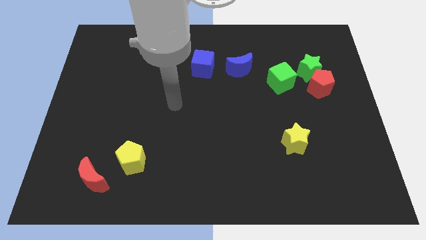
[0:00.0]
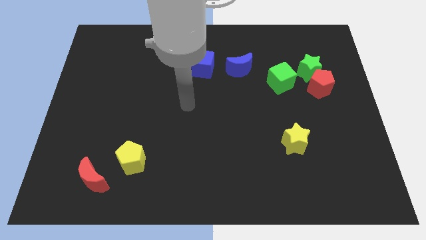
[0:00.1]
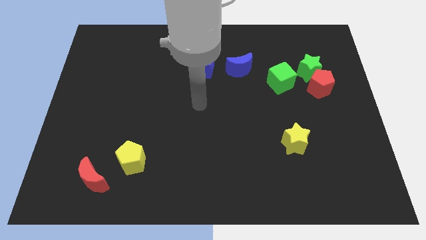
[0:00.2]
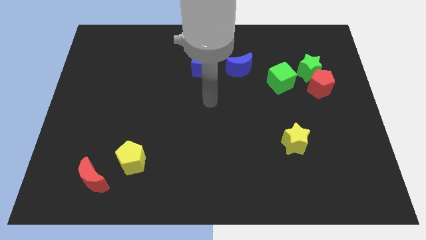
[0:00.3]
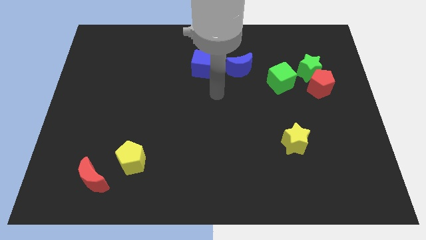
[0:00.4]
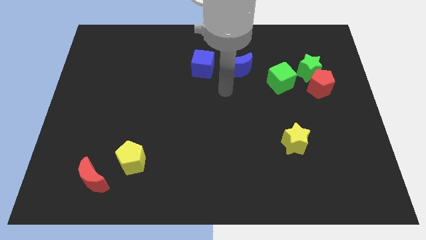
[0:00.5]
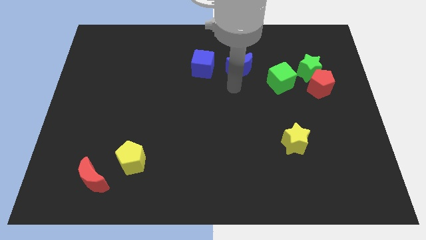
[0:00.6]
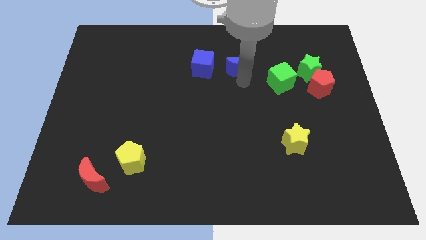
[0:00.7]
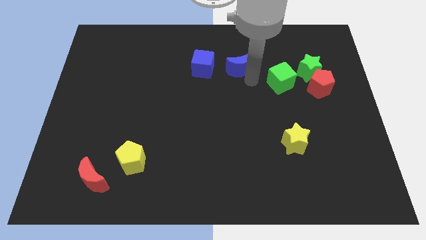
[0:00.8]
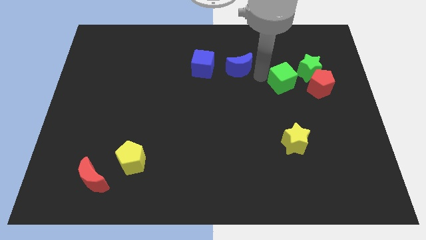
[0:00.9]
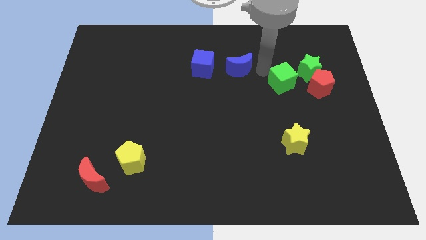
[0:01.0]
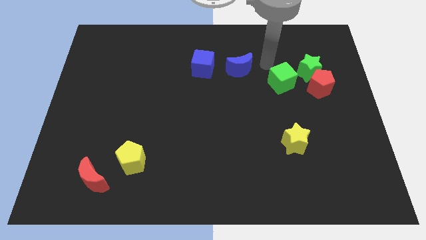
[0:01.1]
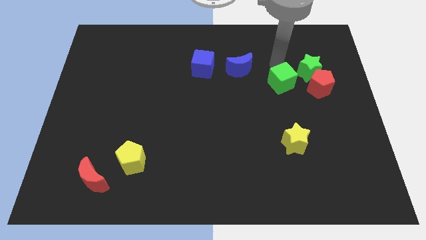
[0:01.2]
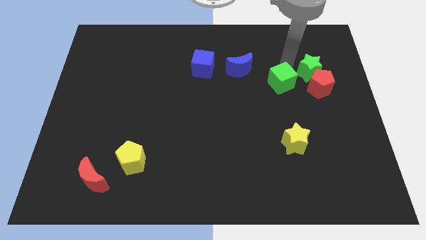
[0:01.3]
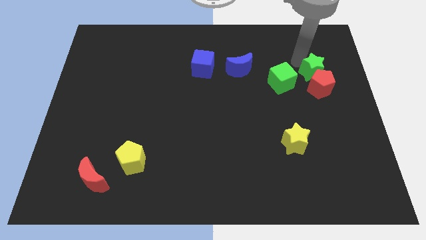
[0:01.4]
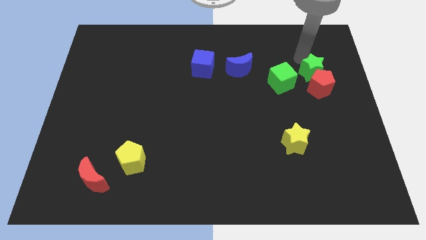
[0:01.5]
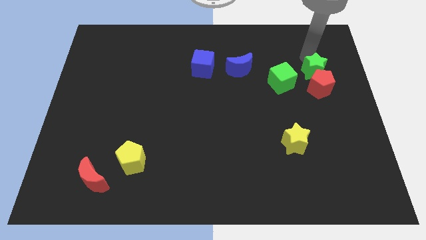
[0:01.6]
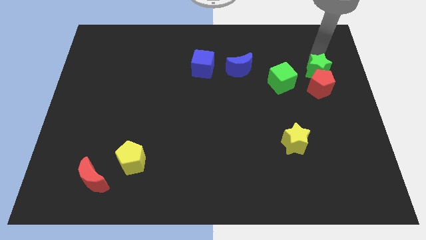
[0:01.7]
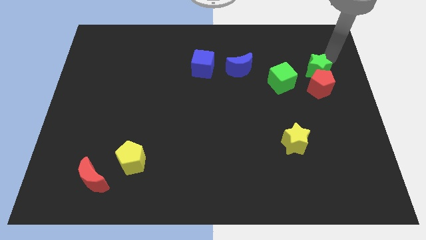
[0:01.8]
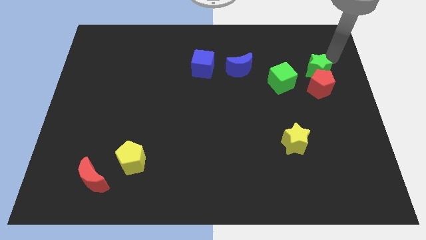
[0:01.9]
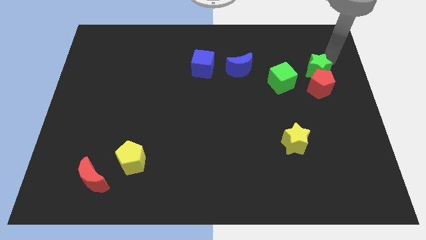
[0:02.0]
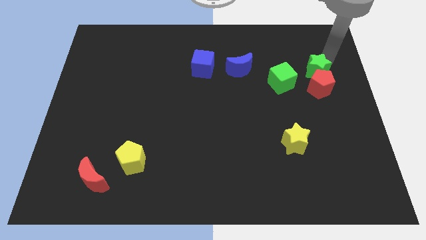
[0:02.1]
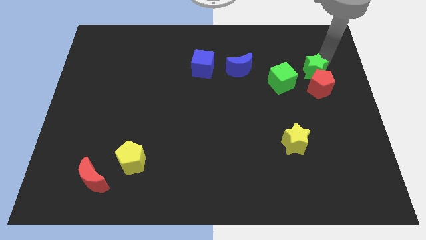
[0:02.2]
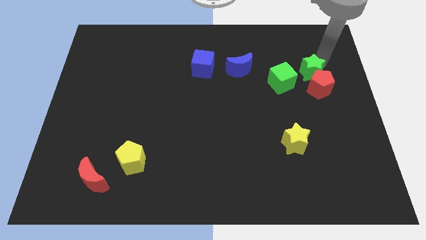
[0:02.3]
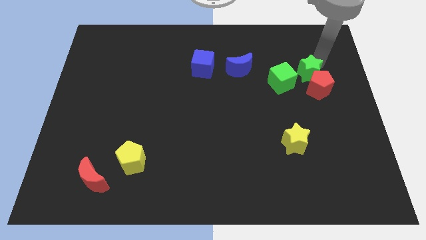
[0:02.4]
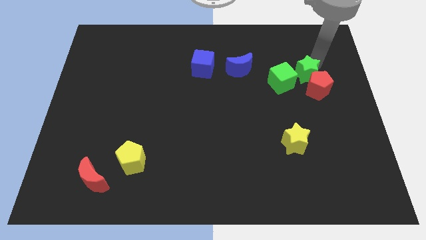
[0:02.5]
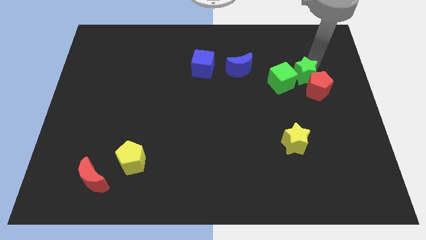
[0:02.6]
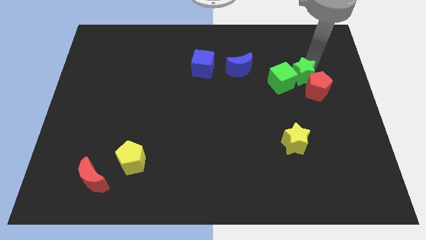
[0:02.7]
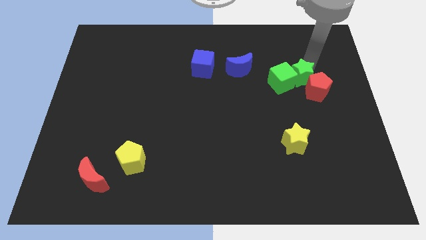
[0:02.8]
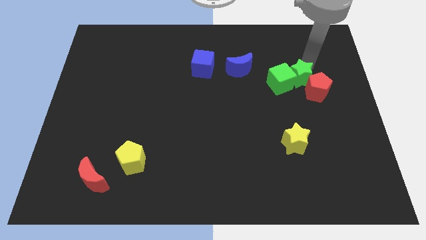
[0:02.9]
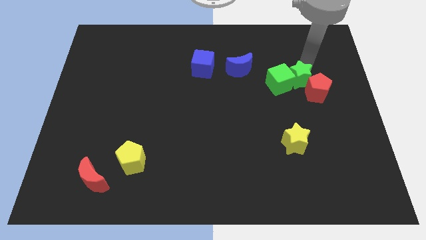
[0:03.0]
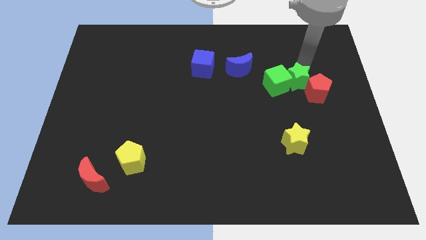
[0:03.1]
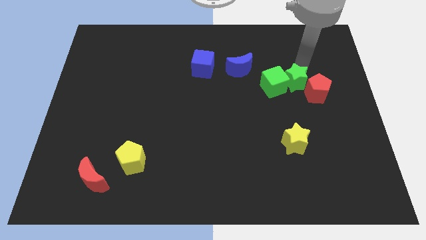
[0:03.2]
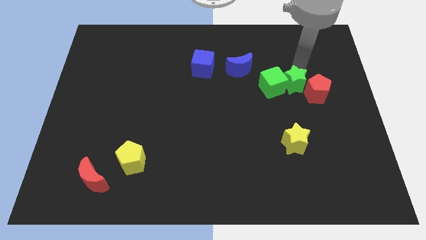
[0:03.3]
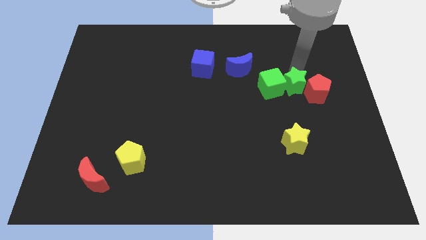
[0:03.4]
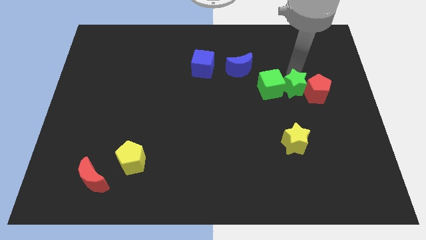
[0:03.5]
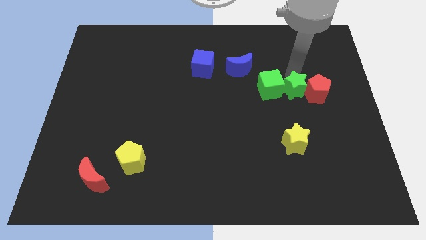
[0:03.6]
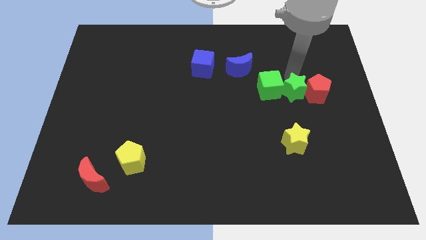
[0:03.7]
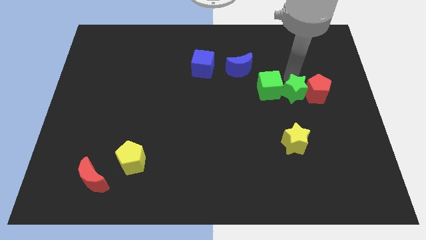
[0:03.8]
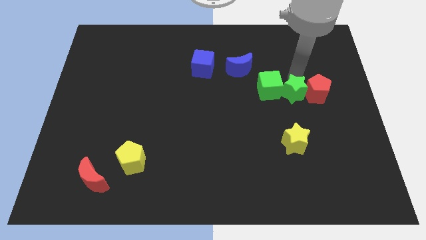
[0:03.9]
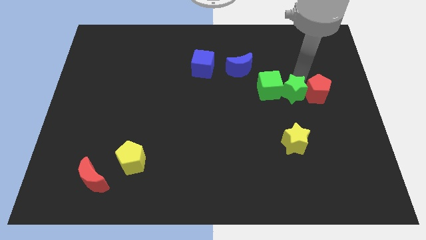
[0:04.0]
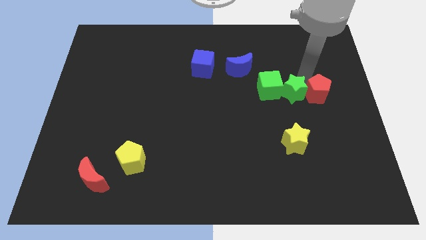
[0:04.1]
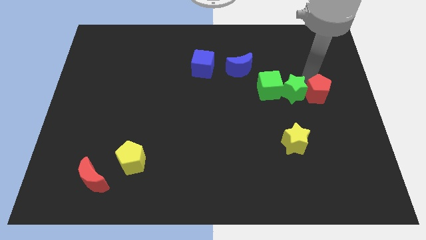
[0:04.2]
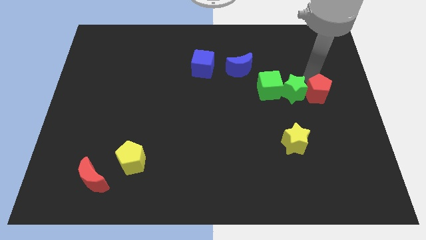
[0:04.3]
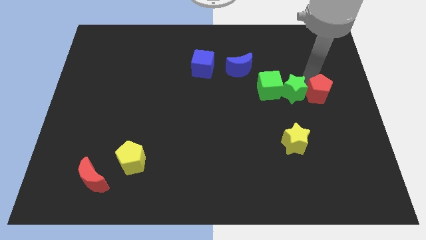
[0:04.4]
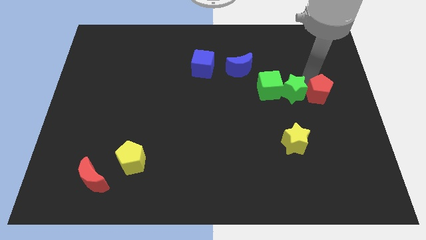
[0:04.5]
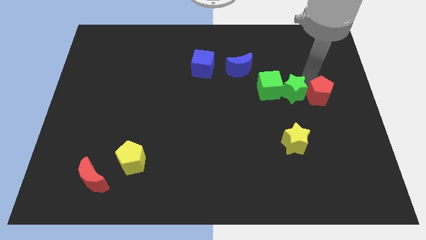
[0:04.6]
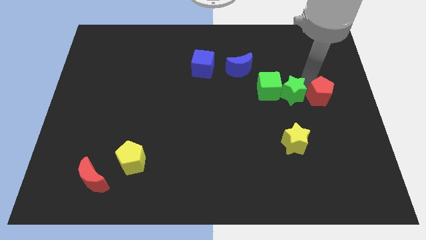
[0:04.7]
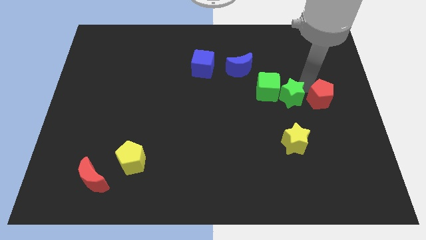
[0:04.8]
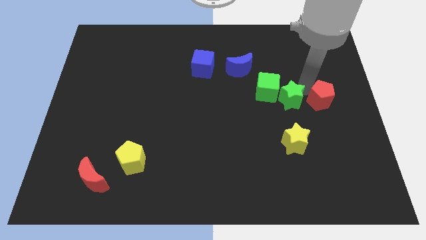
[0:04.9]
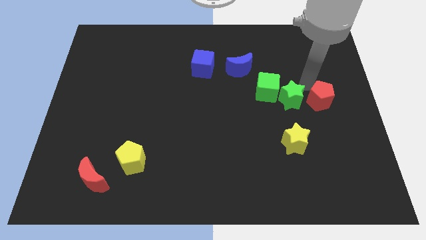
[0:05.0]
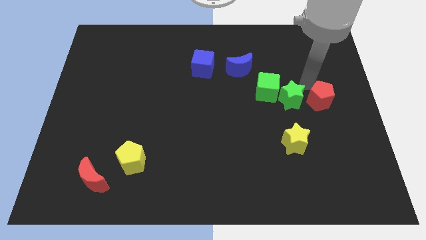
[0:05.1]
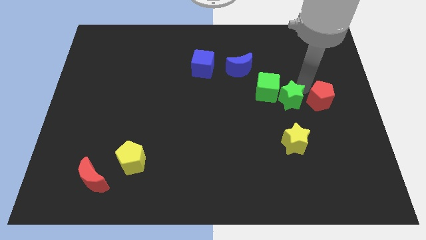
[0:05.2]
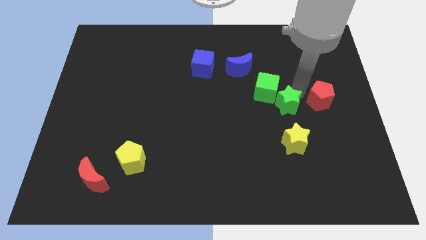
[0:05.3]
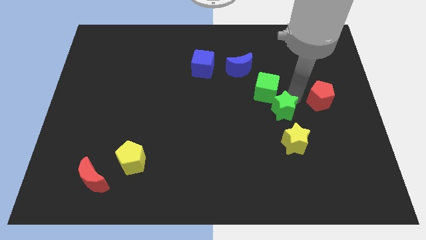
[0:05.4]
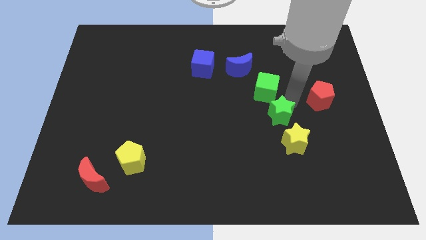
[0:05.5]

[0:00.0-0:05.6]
push the green star to the top left of the yellow star
